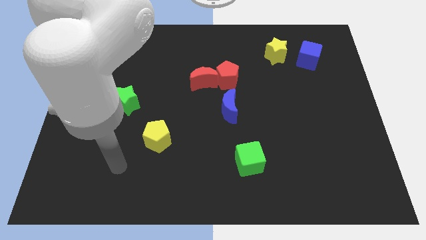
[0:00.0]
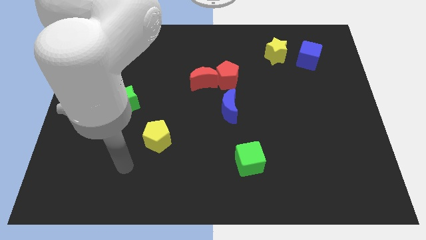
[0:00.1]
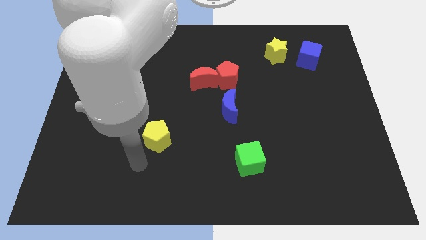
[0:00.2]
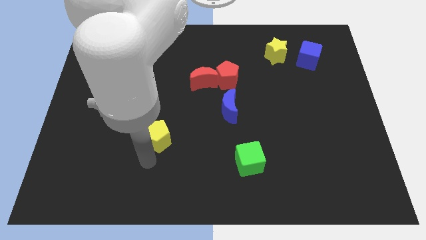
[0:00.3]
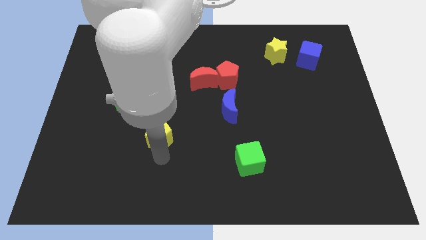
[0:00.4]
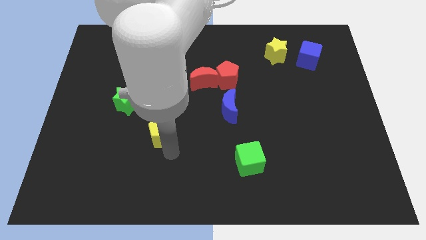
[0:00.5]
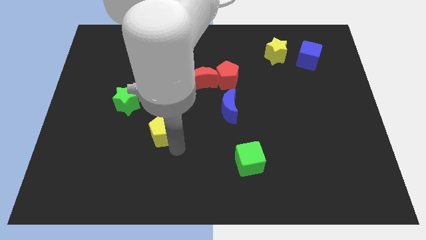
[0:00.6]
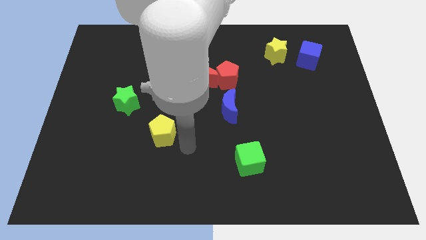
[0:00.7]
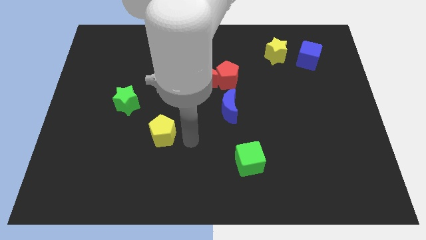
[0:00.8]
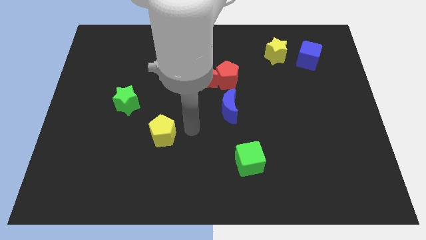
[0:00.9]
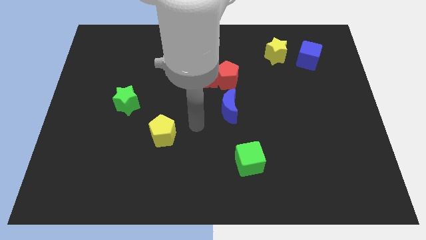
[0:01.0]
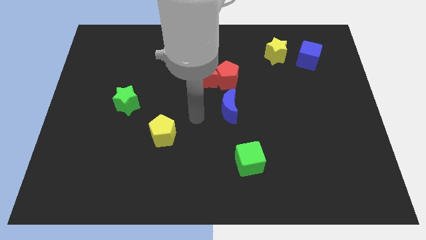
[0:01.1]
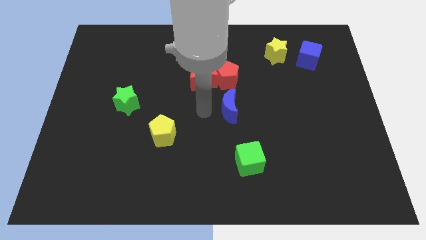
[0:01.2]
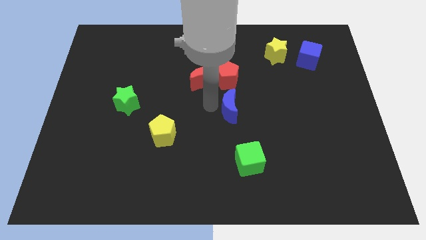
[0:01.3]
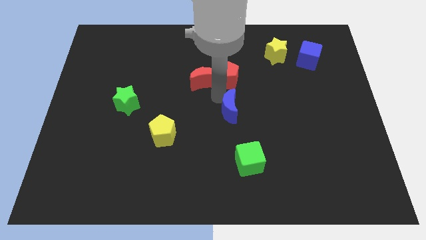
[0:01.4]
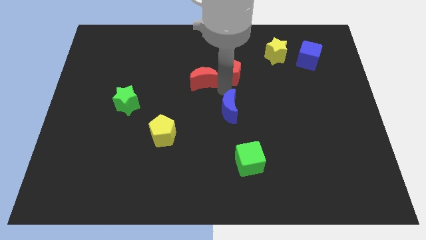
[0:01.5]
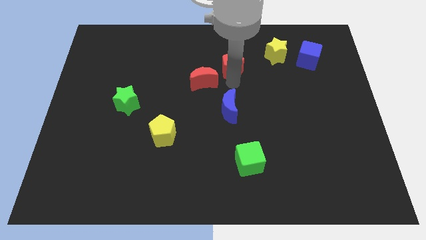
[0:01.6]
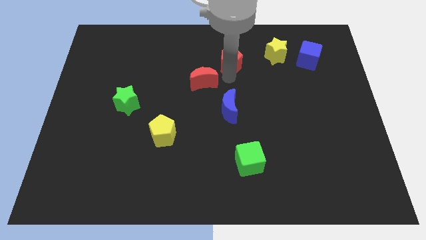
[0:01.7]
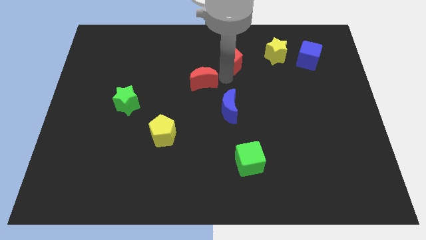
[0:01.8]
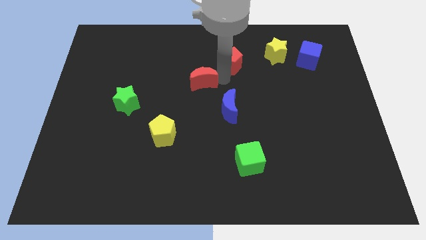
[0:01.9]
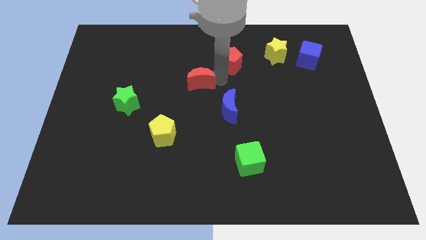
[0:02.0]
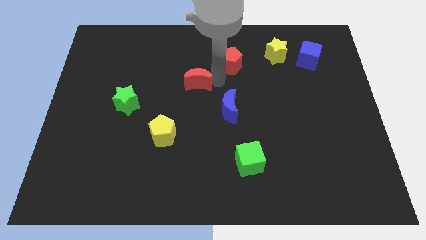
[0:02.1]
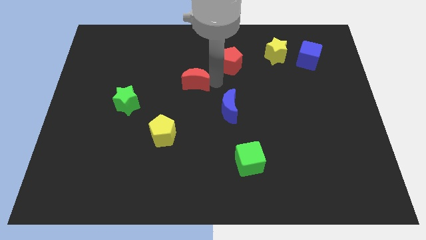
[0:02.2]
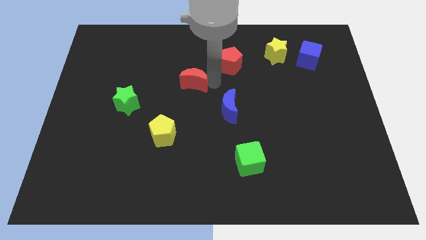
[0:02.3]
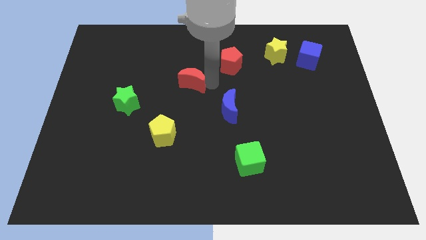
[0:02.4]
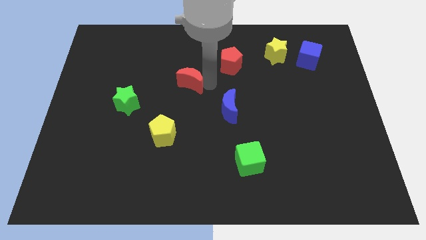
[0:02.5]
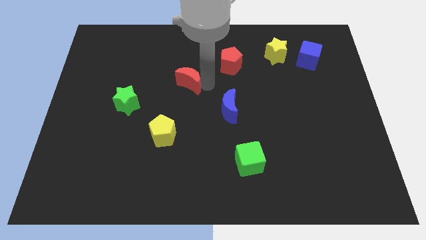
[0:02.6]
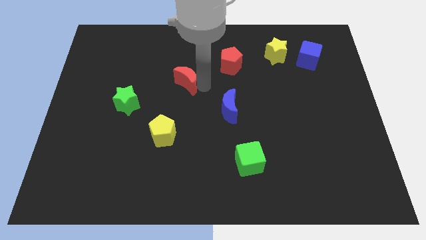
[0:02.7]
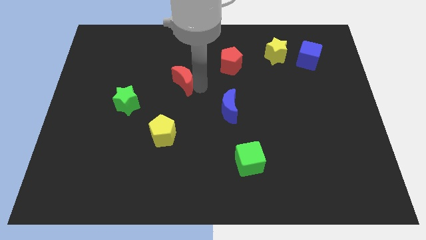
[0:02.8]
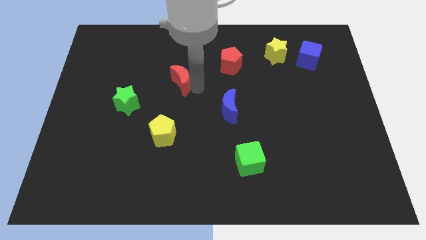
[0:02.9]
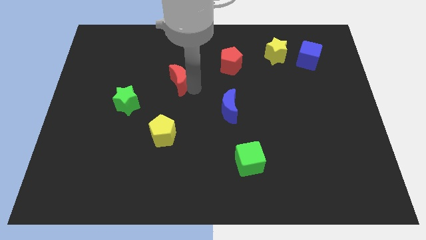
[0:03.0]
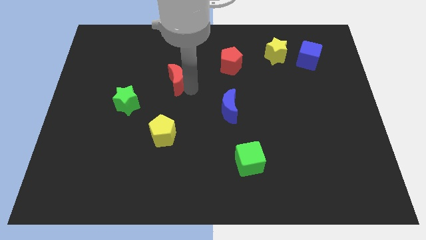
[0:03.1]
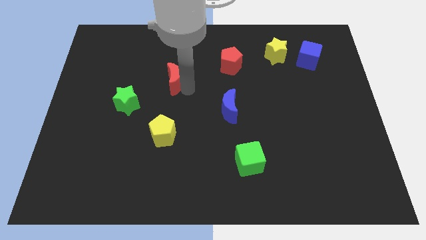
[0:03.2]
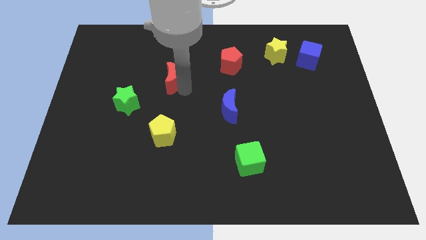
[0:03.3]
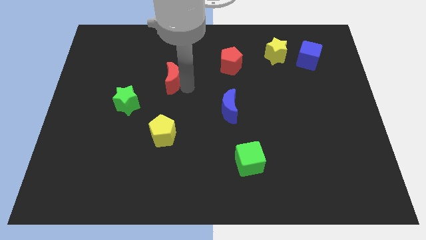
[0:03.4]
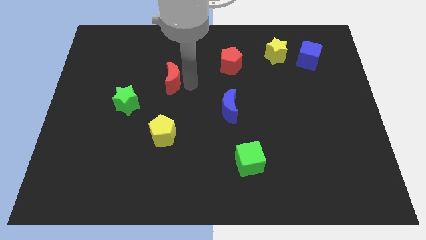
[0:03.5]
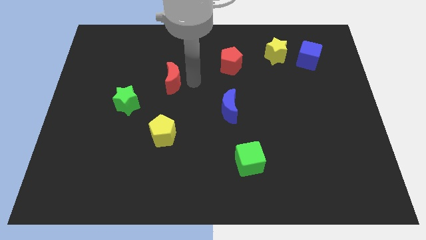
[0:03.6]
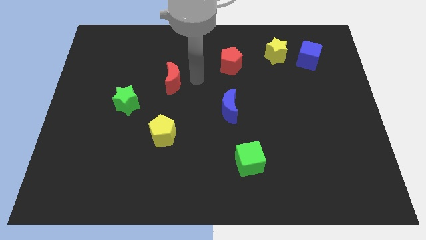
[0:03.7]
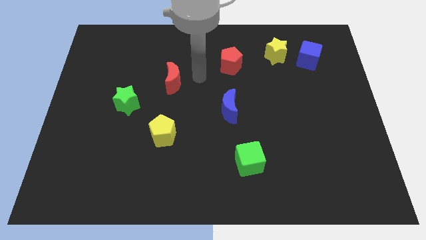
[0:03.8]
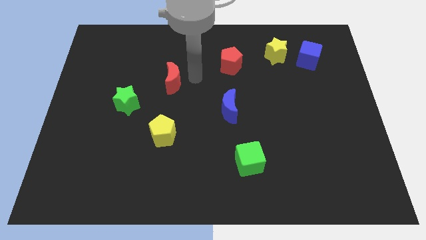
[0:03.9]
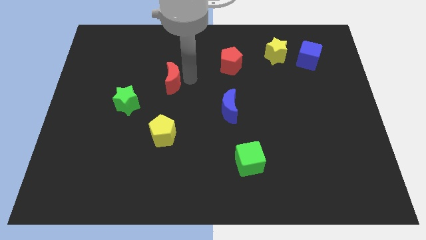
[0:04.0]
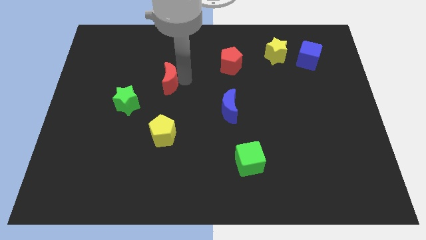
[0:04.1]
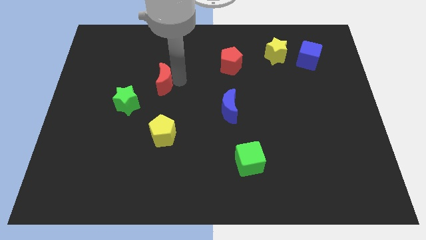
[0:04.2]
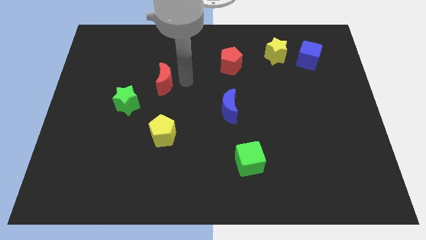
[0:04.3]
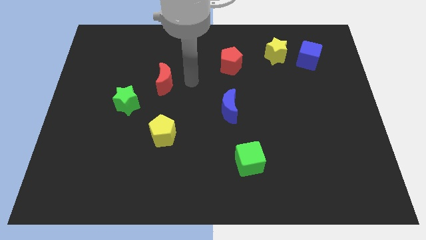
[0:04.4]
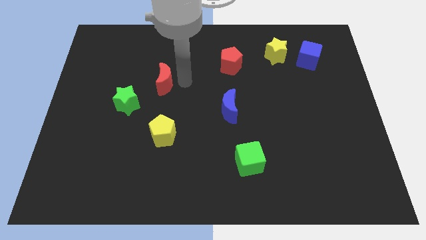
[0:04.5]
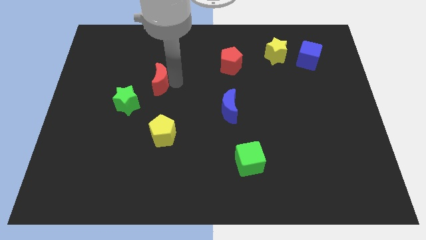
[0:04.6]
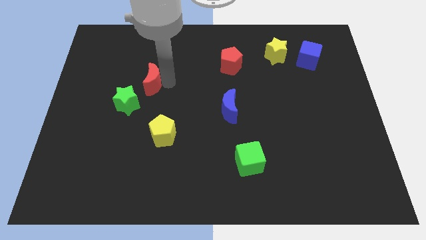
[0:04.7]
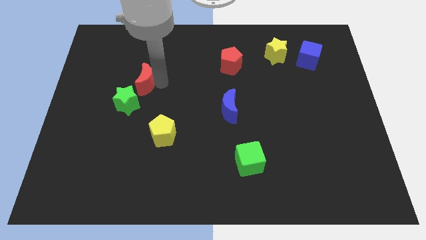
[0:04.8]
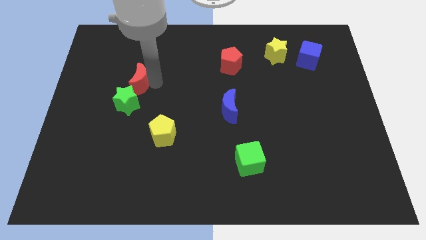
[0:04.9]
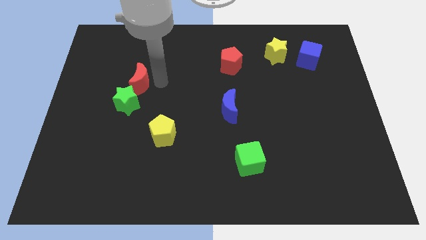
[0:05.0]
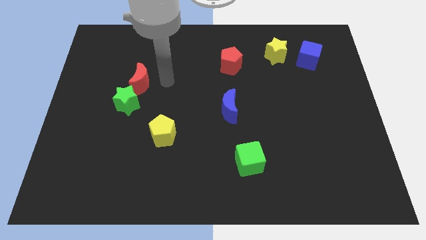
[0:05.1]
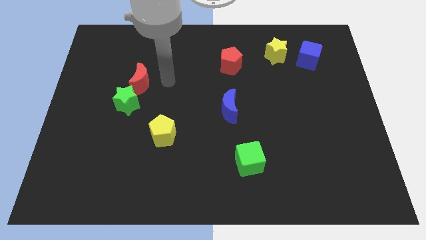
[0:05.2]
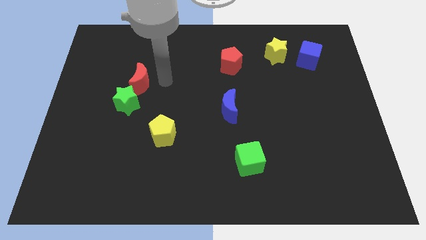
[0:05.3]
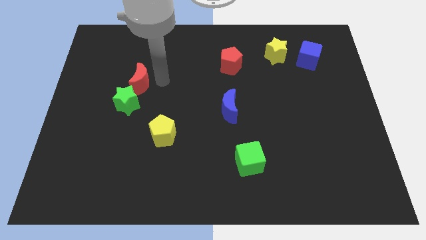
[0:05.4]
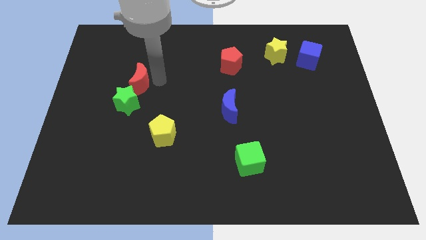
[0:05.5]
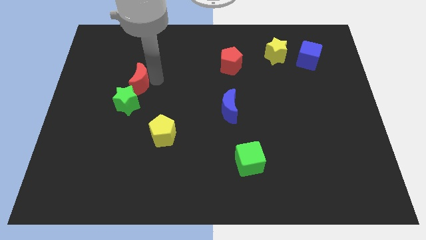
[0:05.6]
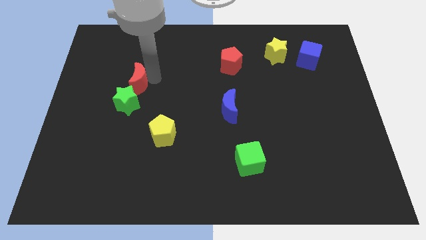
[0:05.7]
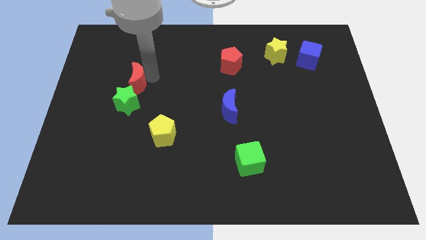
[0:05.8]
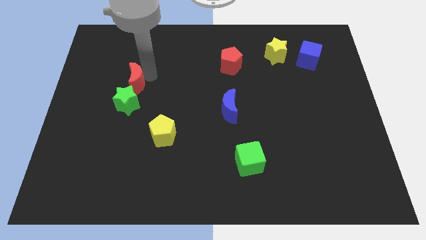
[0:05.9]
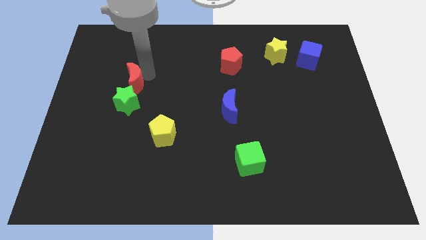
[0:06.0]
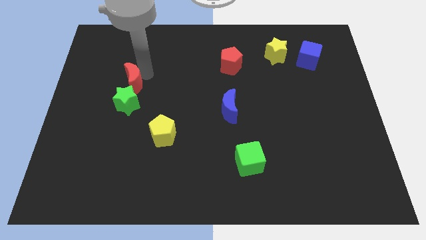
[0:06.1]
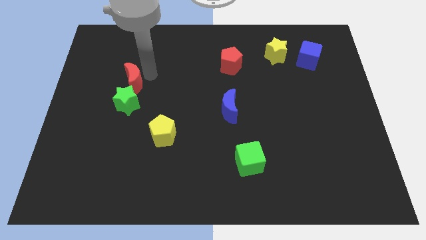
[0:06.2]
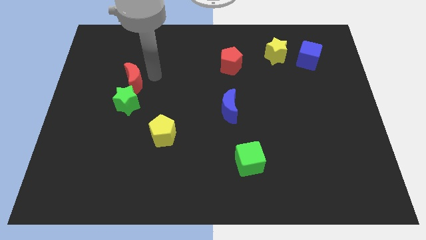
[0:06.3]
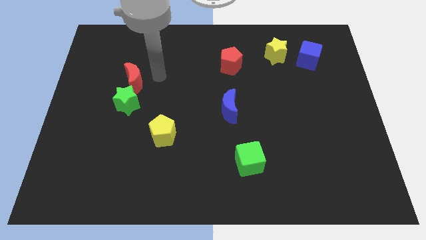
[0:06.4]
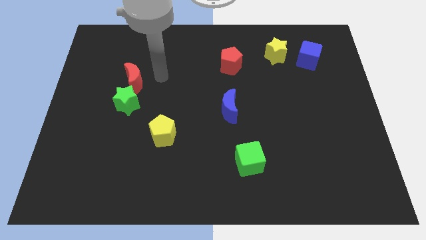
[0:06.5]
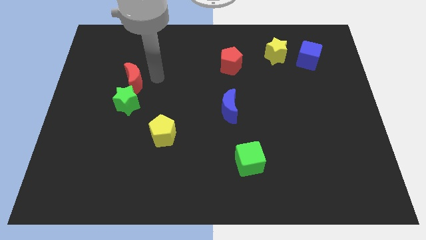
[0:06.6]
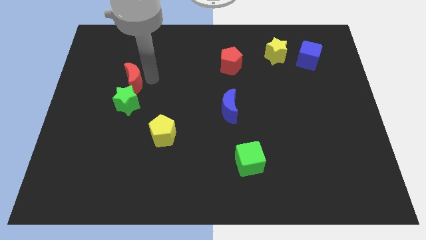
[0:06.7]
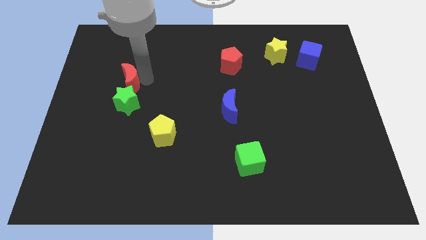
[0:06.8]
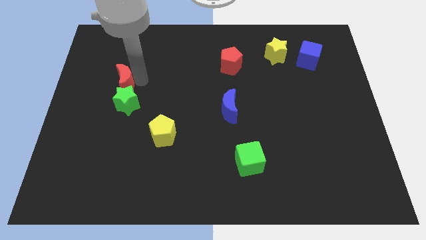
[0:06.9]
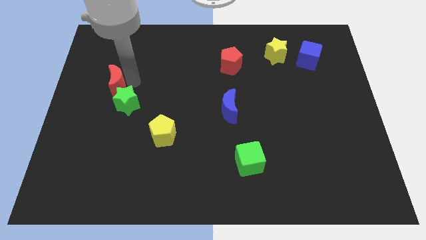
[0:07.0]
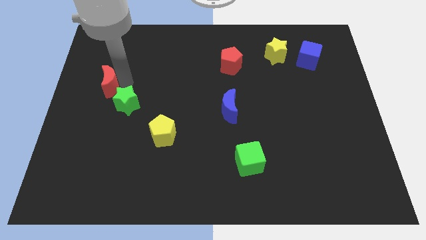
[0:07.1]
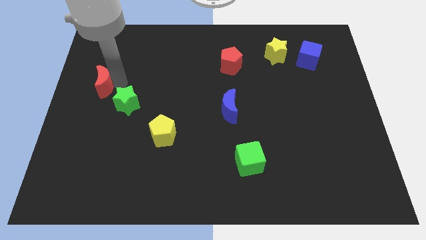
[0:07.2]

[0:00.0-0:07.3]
push the red moon to the left side
